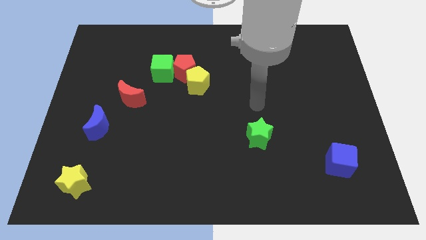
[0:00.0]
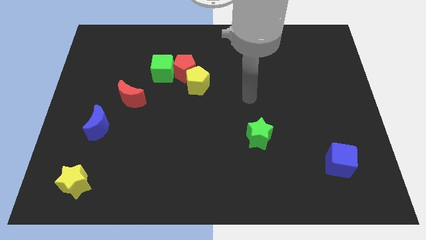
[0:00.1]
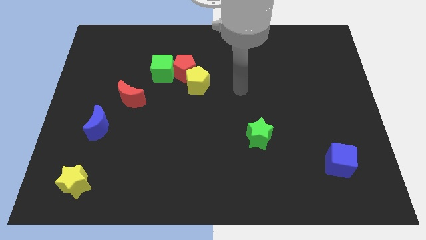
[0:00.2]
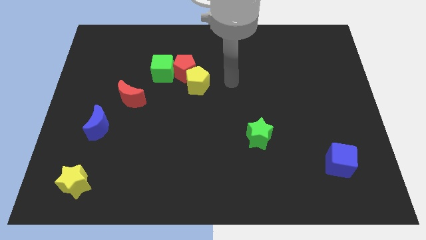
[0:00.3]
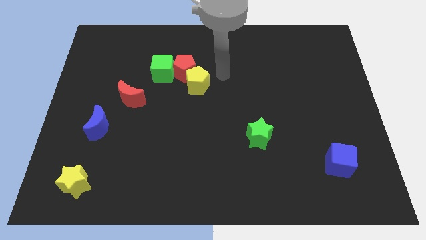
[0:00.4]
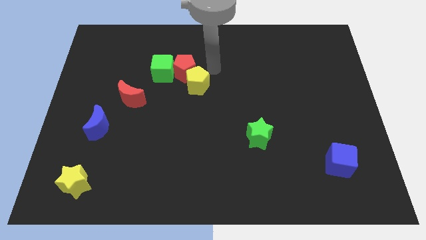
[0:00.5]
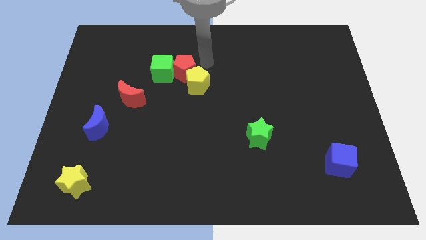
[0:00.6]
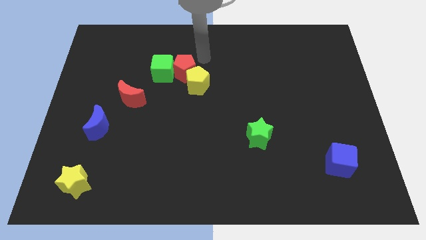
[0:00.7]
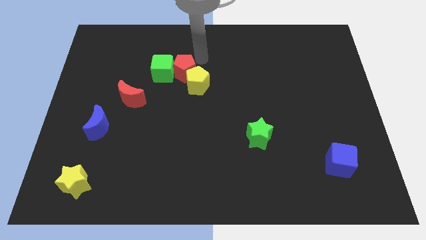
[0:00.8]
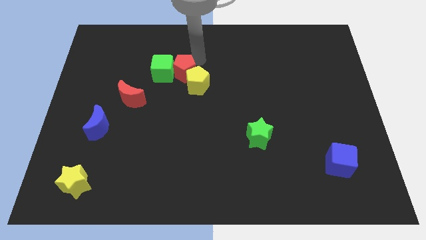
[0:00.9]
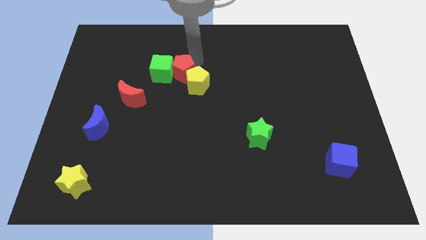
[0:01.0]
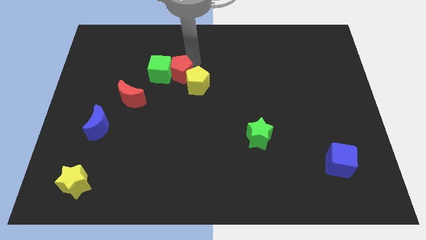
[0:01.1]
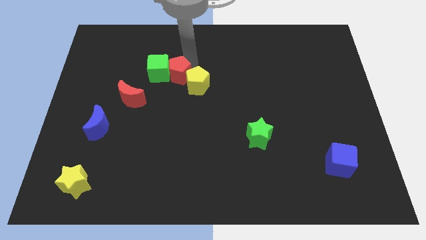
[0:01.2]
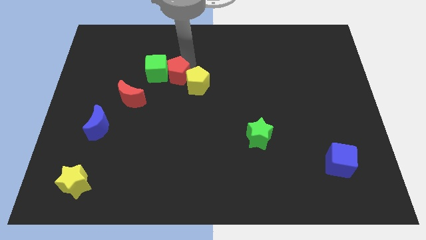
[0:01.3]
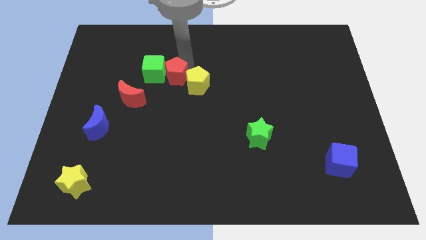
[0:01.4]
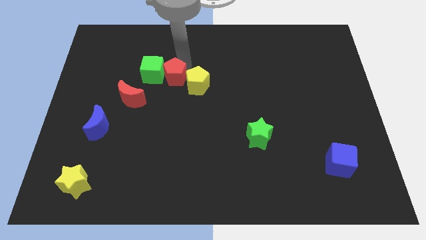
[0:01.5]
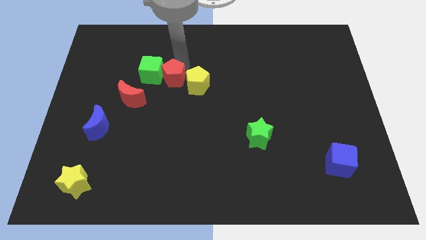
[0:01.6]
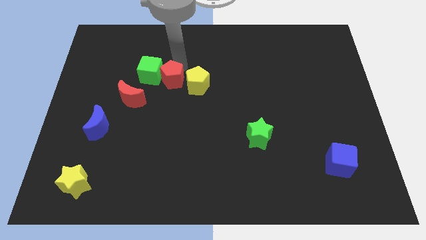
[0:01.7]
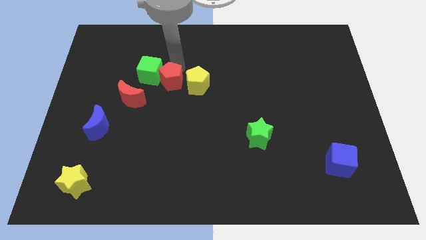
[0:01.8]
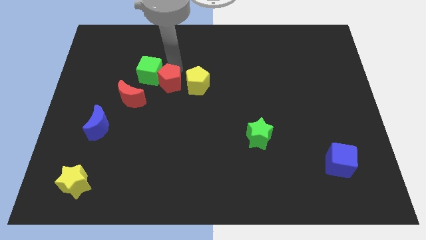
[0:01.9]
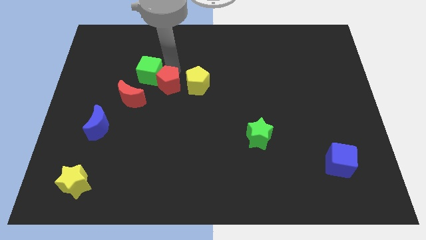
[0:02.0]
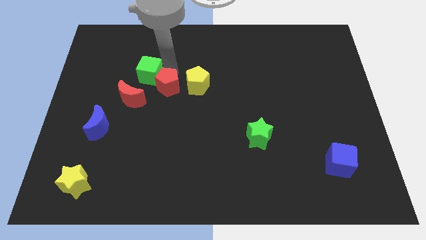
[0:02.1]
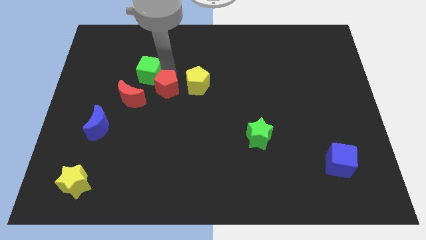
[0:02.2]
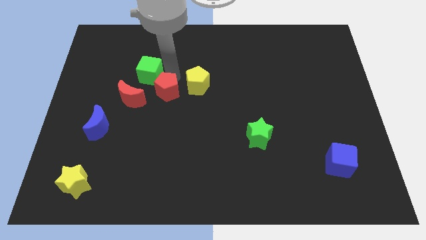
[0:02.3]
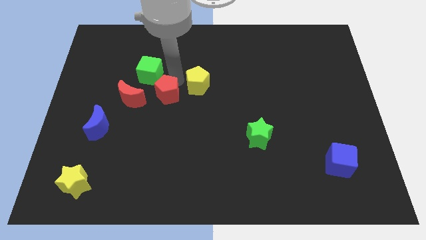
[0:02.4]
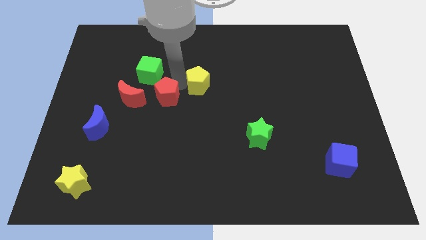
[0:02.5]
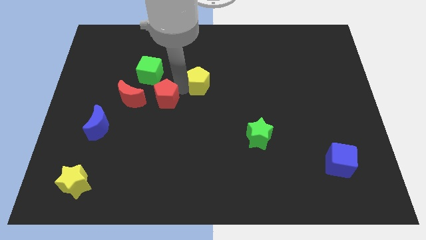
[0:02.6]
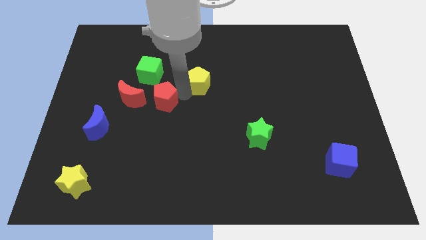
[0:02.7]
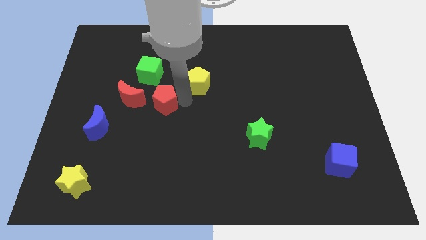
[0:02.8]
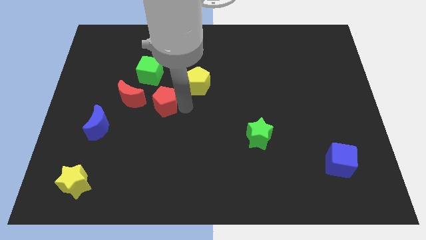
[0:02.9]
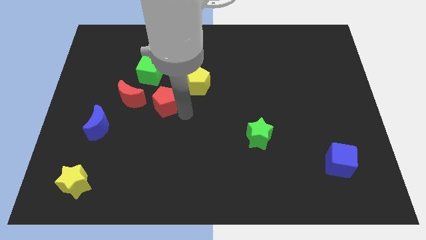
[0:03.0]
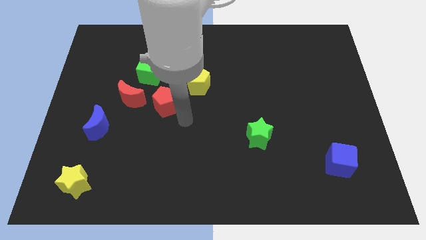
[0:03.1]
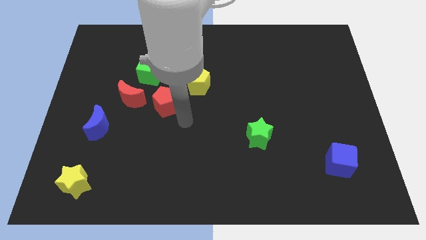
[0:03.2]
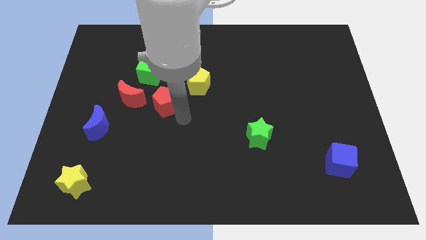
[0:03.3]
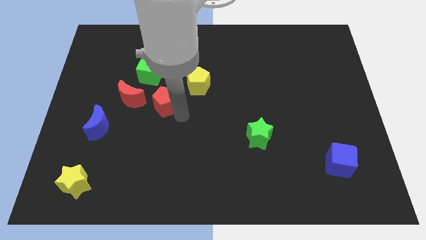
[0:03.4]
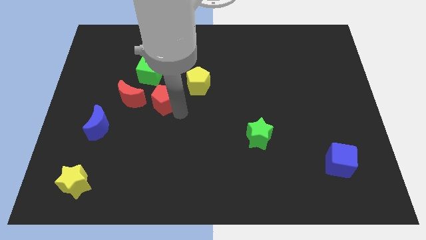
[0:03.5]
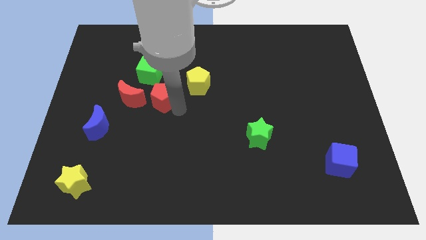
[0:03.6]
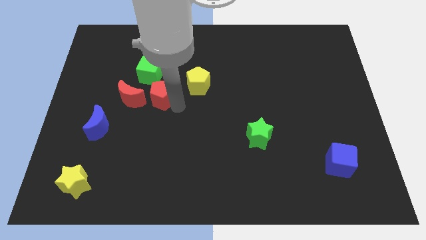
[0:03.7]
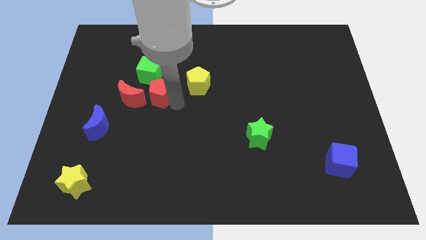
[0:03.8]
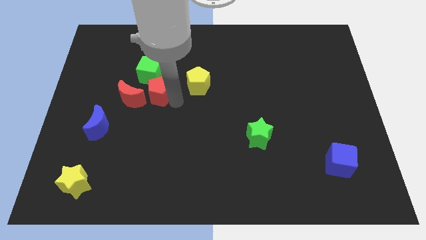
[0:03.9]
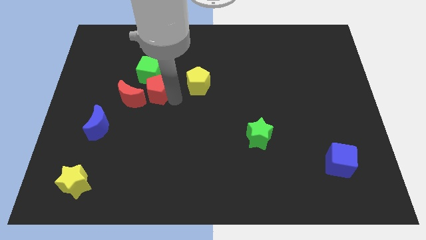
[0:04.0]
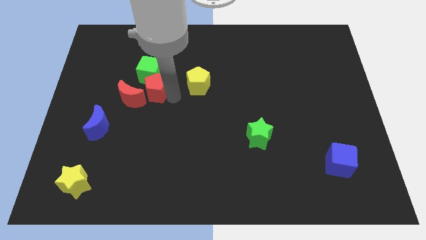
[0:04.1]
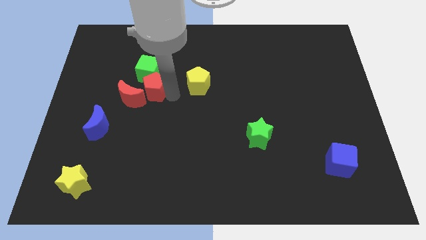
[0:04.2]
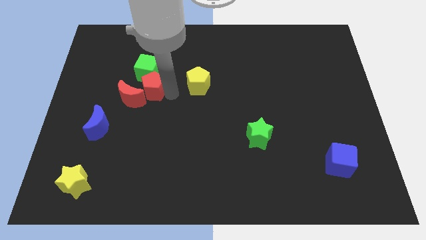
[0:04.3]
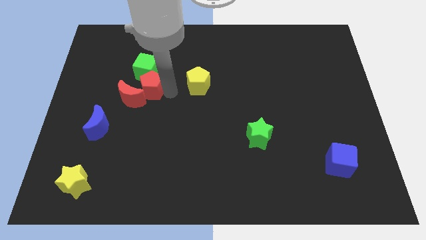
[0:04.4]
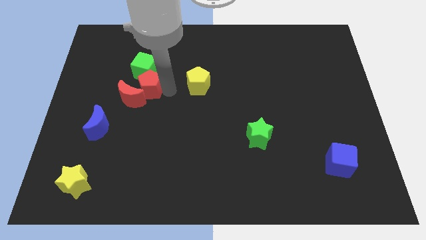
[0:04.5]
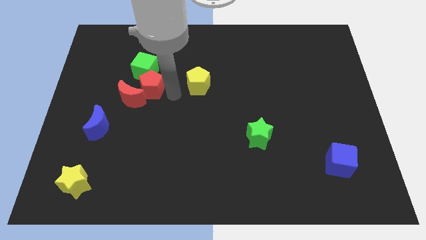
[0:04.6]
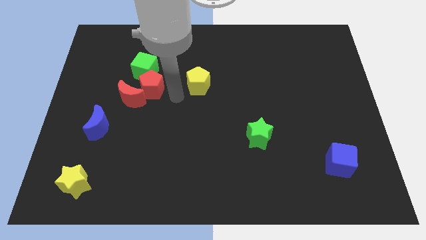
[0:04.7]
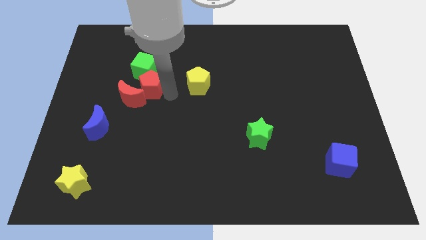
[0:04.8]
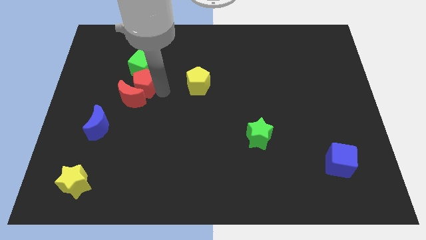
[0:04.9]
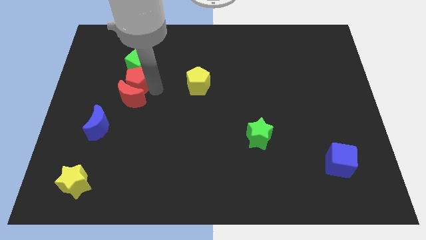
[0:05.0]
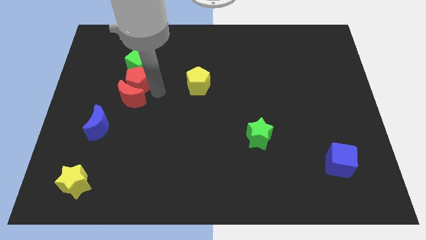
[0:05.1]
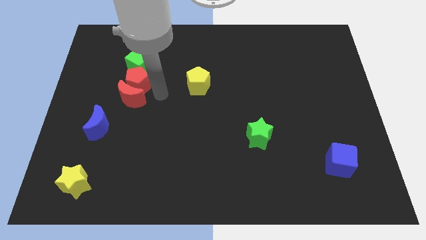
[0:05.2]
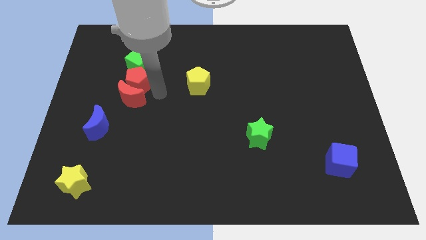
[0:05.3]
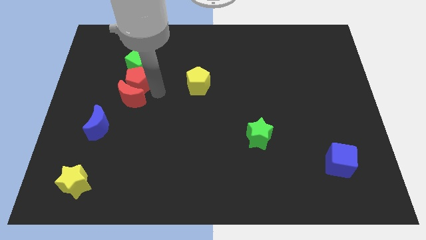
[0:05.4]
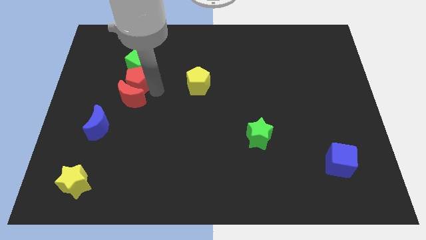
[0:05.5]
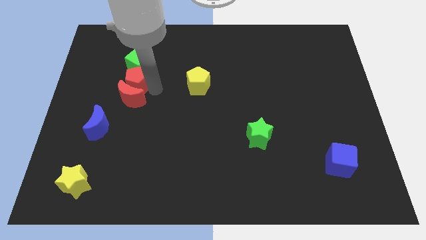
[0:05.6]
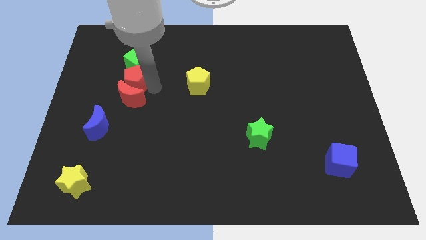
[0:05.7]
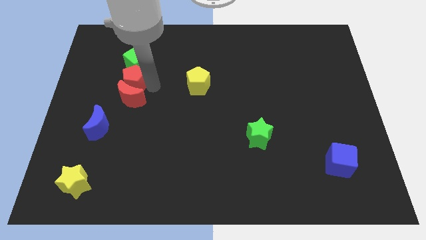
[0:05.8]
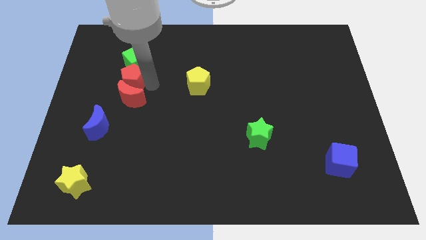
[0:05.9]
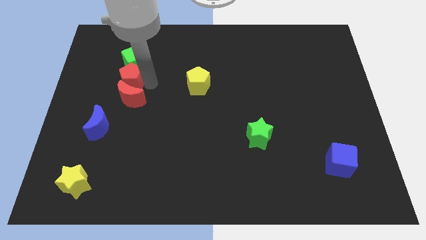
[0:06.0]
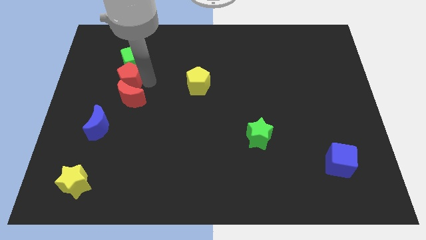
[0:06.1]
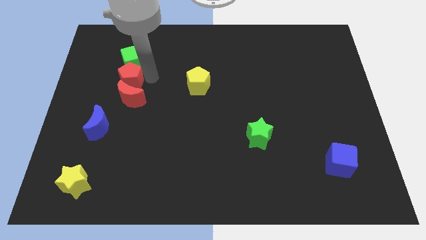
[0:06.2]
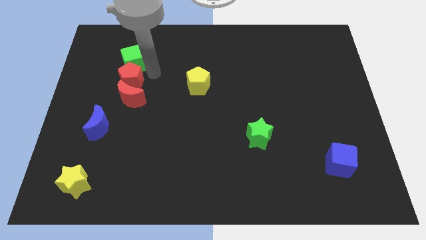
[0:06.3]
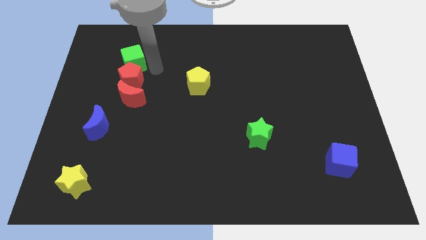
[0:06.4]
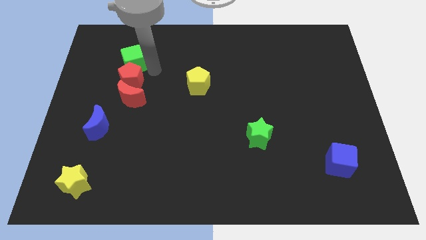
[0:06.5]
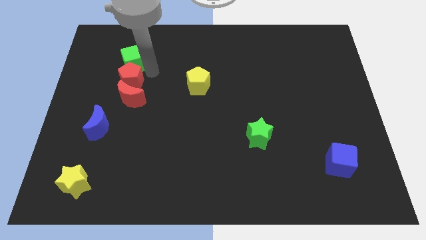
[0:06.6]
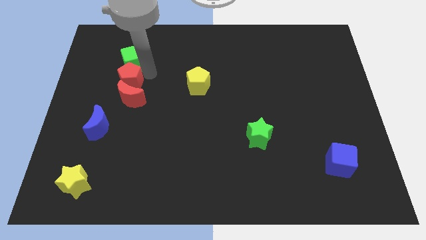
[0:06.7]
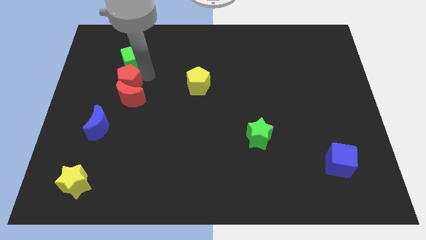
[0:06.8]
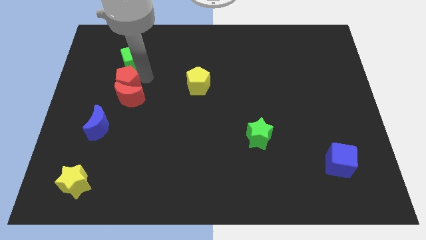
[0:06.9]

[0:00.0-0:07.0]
push the red pentagon to the top of the blue moon
